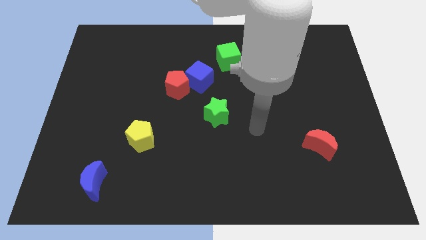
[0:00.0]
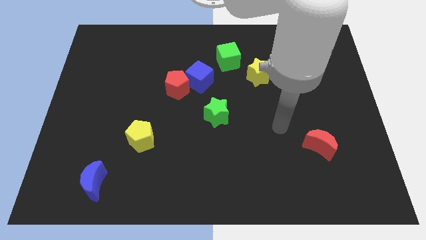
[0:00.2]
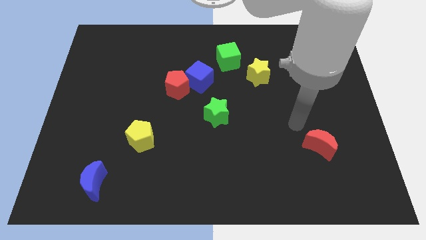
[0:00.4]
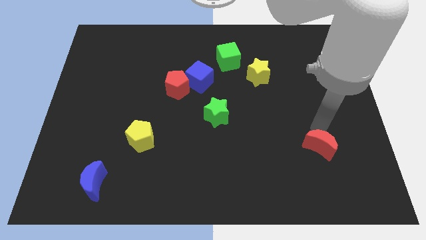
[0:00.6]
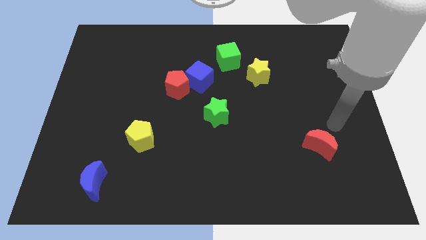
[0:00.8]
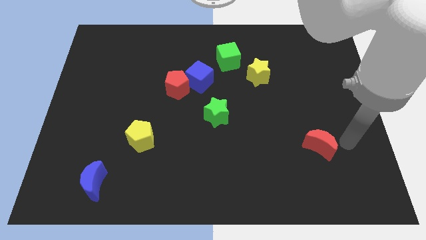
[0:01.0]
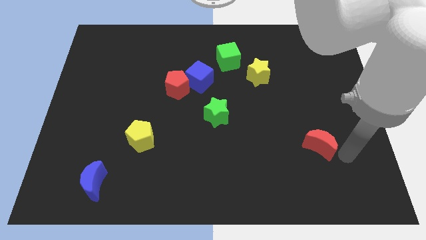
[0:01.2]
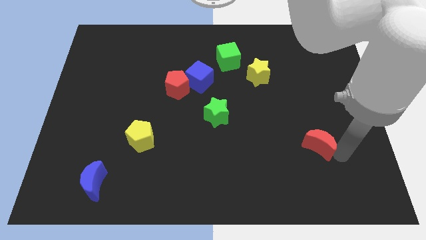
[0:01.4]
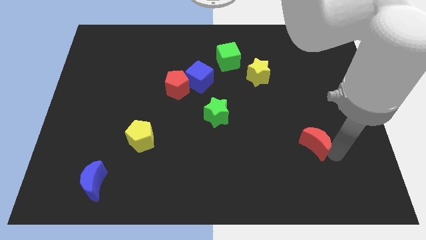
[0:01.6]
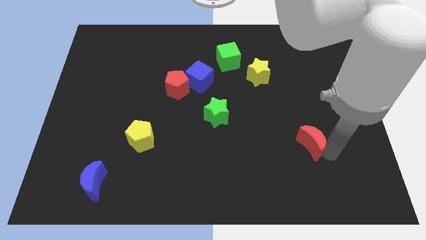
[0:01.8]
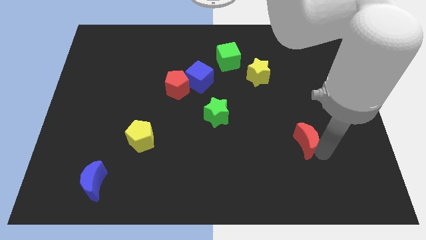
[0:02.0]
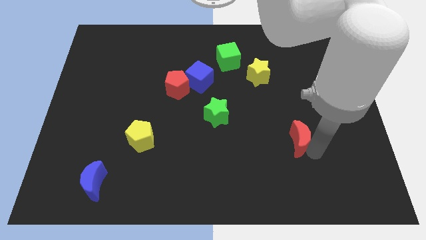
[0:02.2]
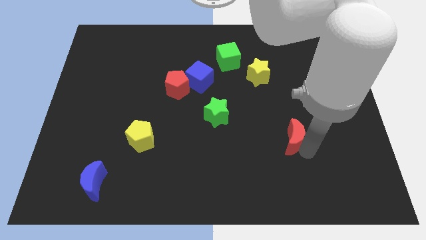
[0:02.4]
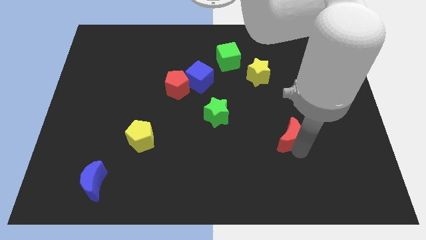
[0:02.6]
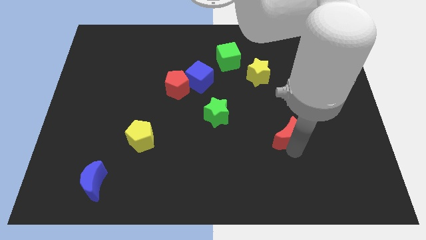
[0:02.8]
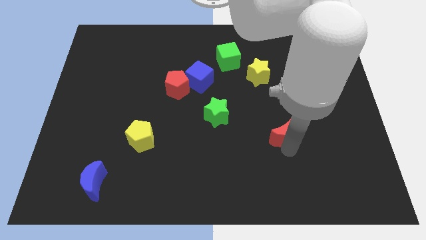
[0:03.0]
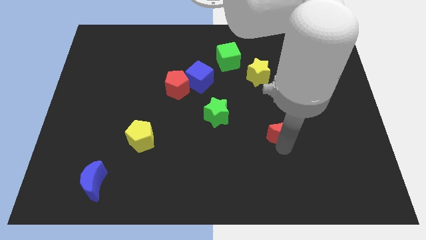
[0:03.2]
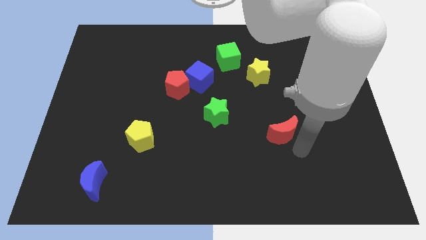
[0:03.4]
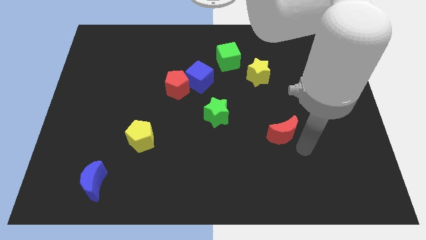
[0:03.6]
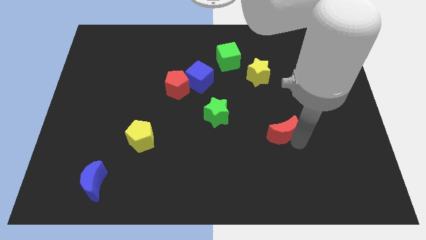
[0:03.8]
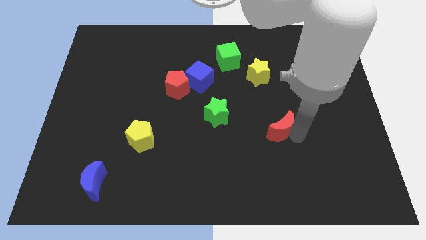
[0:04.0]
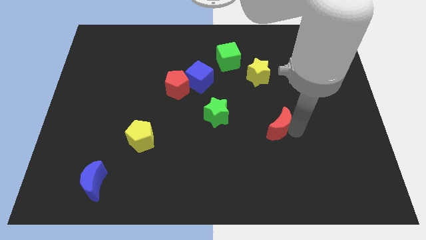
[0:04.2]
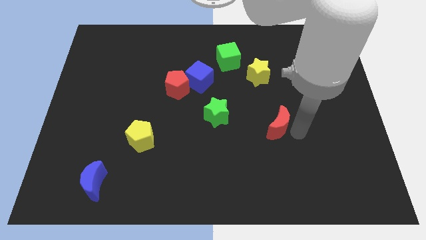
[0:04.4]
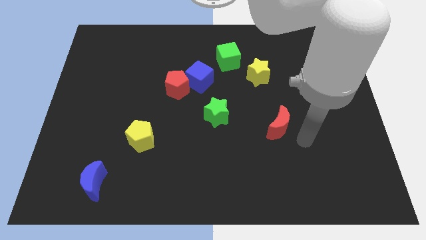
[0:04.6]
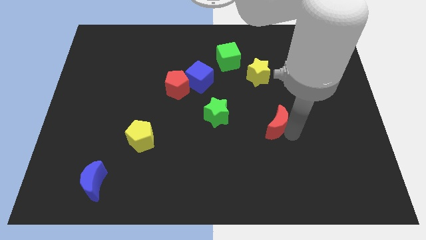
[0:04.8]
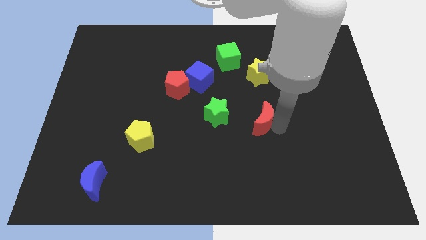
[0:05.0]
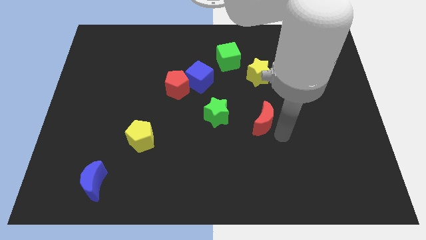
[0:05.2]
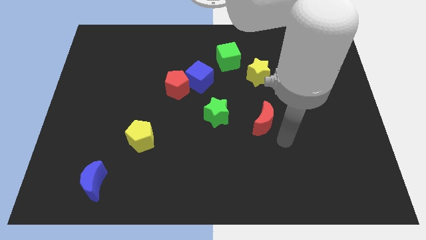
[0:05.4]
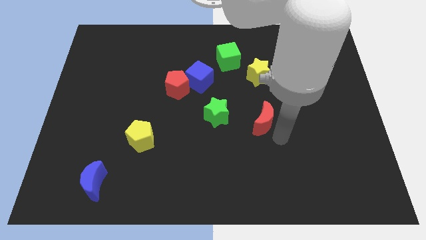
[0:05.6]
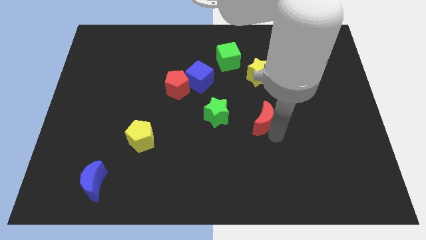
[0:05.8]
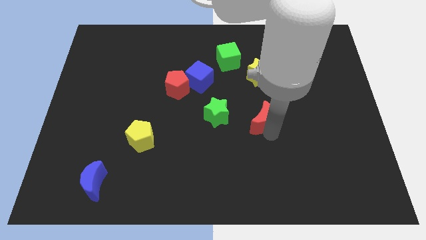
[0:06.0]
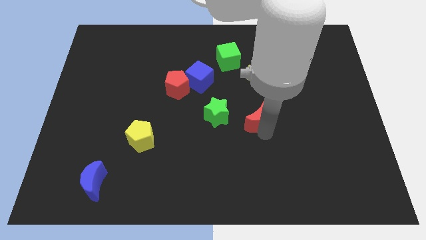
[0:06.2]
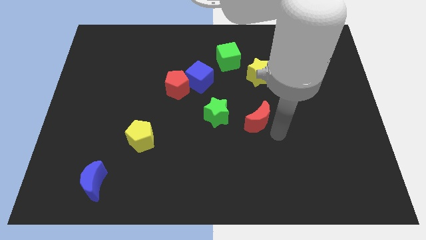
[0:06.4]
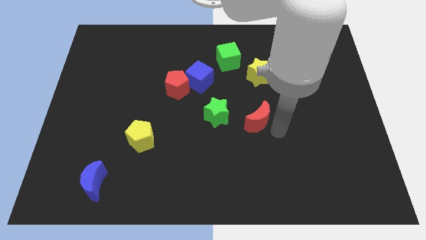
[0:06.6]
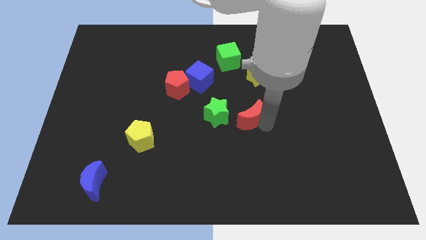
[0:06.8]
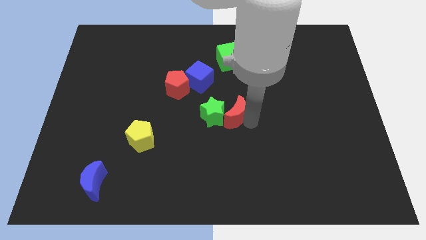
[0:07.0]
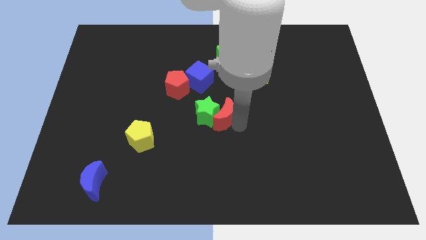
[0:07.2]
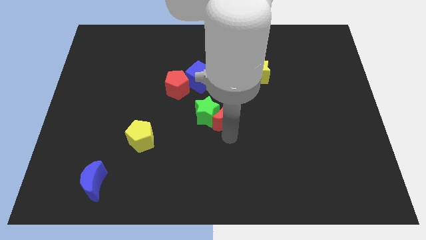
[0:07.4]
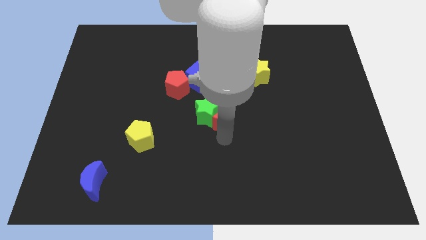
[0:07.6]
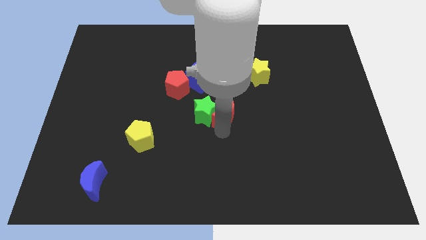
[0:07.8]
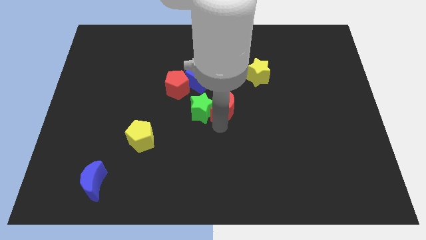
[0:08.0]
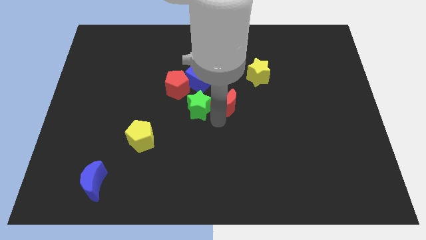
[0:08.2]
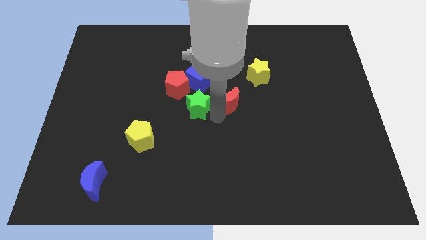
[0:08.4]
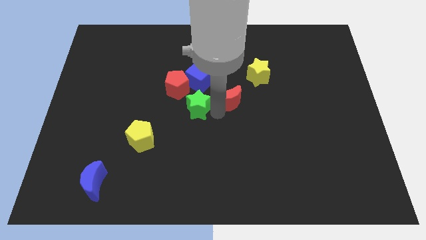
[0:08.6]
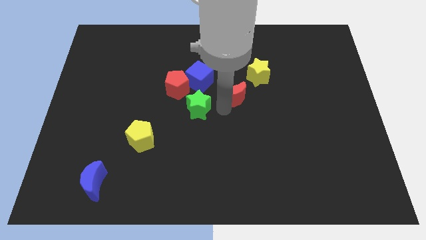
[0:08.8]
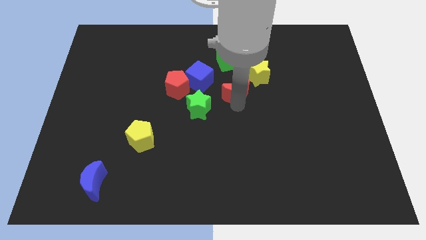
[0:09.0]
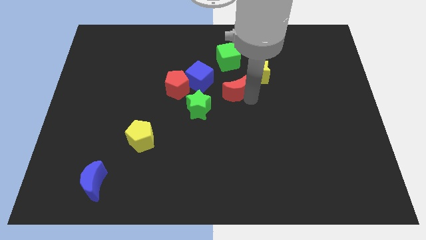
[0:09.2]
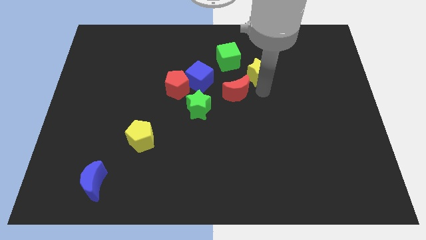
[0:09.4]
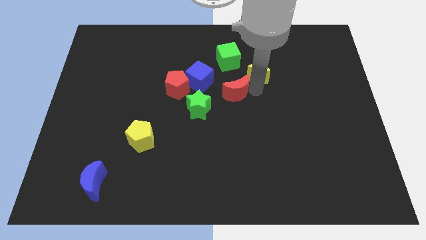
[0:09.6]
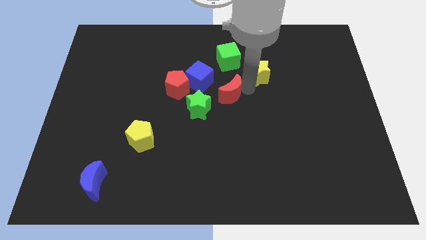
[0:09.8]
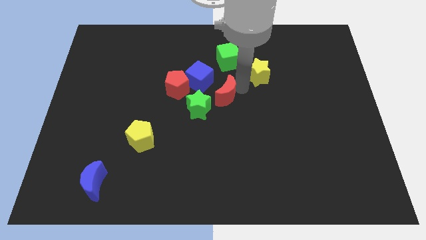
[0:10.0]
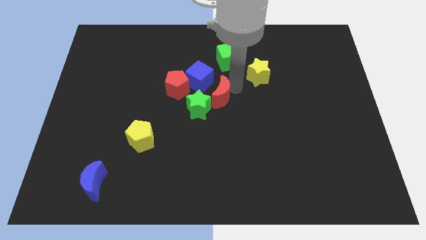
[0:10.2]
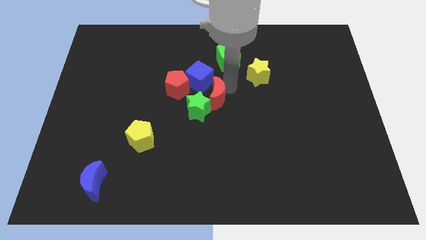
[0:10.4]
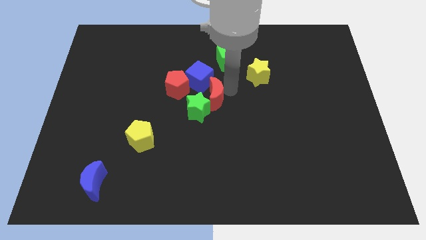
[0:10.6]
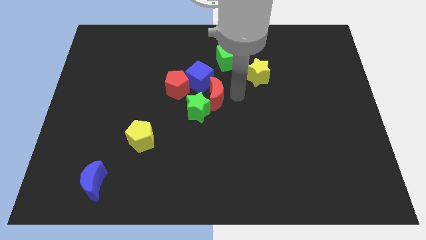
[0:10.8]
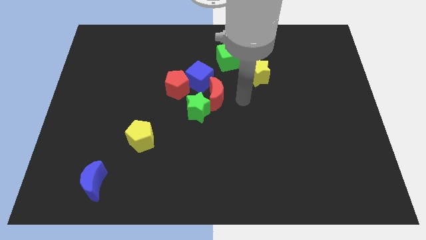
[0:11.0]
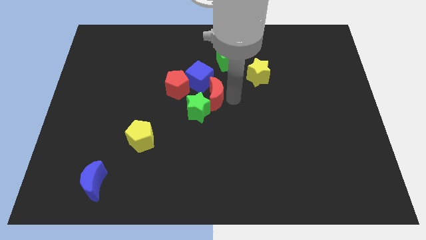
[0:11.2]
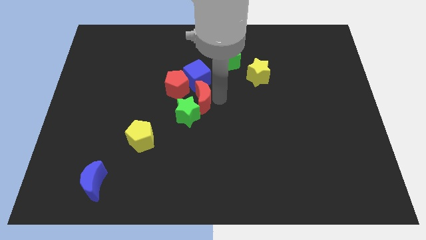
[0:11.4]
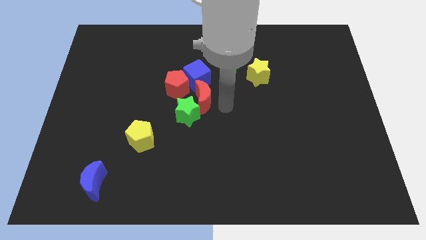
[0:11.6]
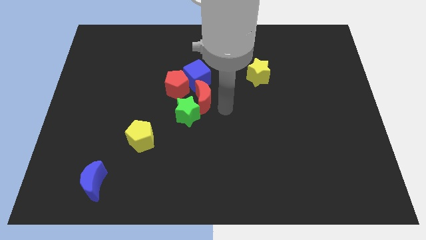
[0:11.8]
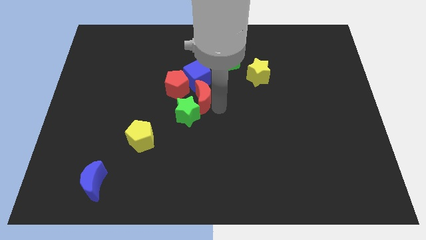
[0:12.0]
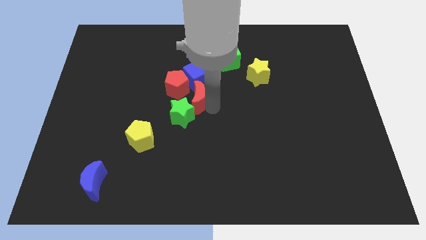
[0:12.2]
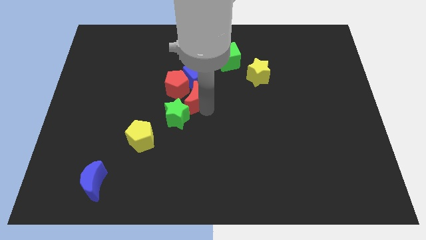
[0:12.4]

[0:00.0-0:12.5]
push the red moon close to the red pentagon

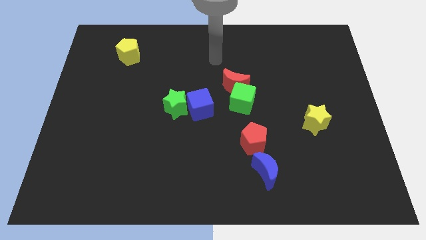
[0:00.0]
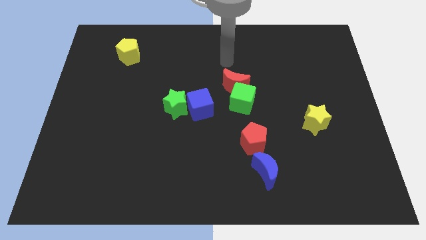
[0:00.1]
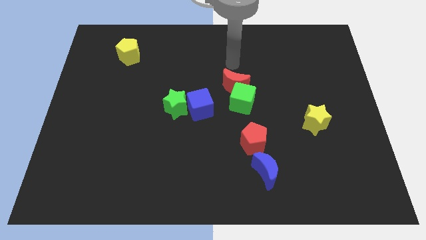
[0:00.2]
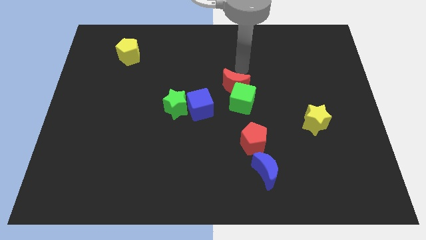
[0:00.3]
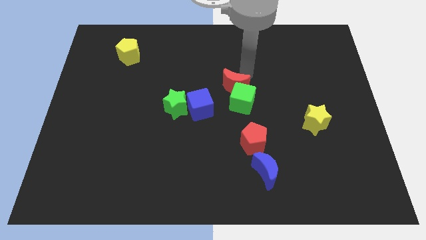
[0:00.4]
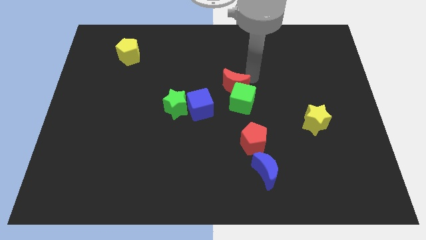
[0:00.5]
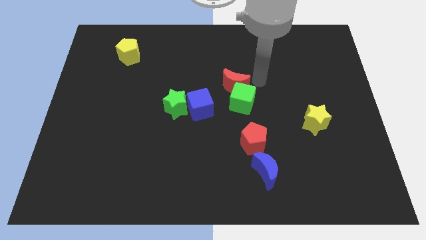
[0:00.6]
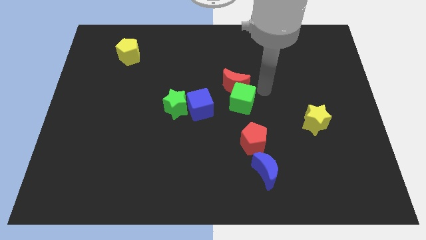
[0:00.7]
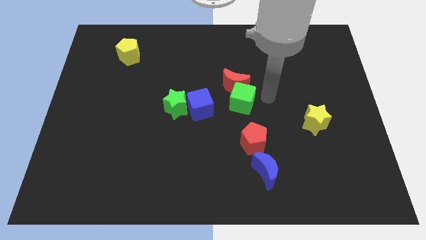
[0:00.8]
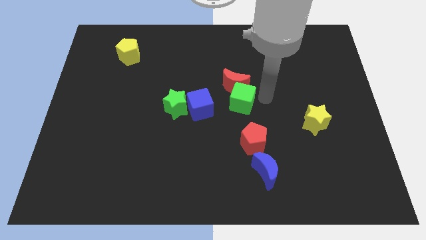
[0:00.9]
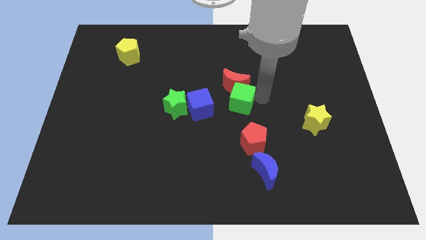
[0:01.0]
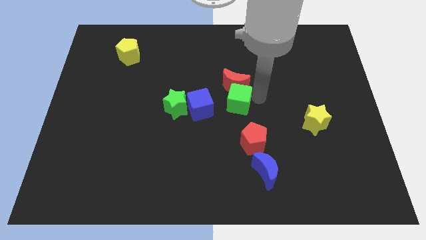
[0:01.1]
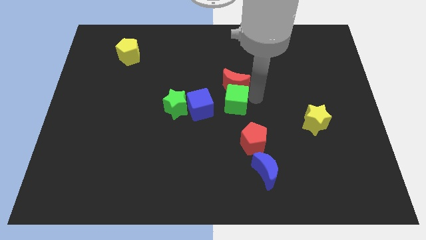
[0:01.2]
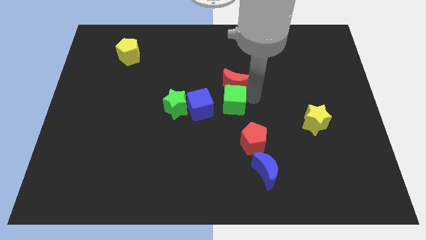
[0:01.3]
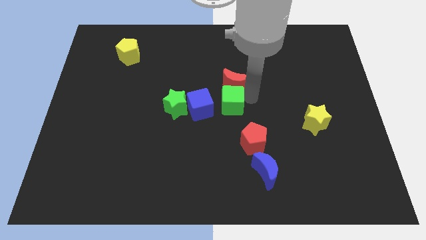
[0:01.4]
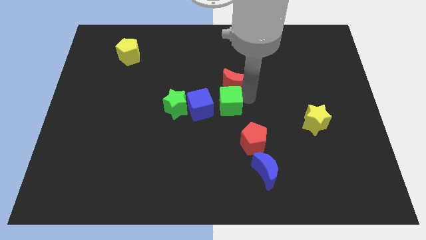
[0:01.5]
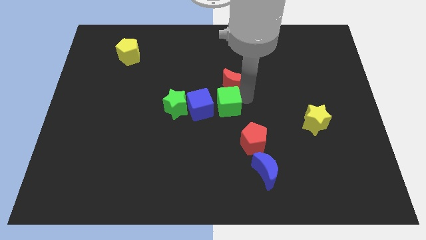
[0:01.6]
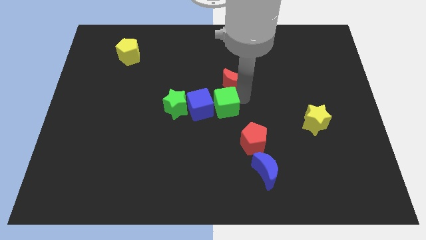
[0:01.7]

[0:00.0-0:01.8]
put the green cube towards the blue cube

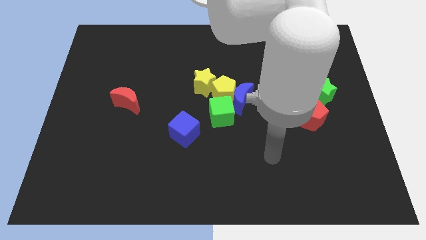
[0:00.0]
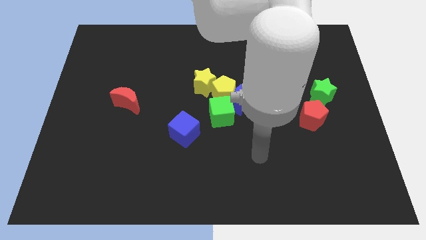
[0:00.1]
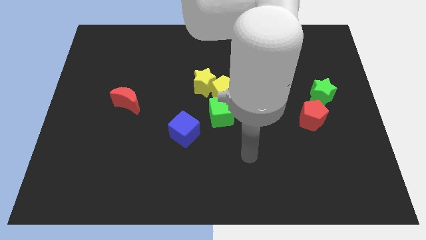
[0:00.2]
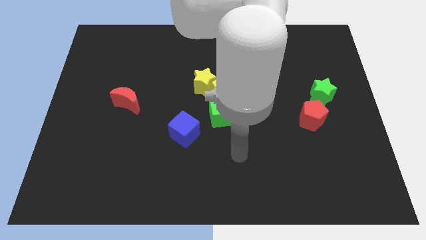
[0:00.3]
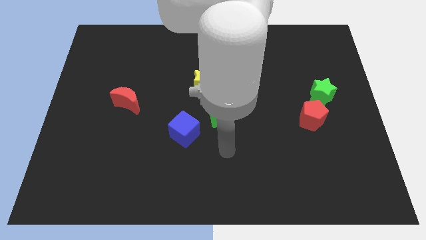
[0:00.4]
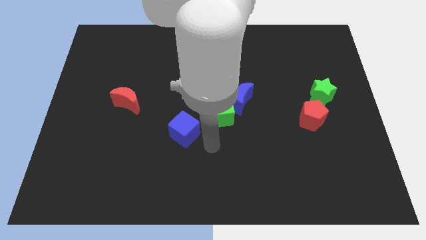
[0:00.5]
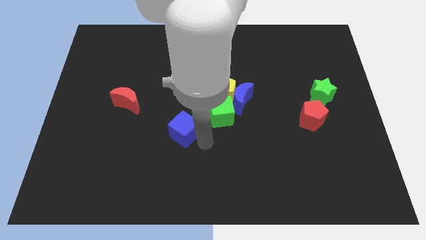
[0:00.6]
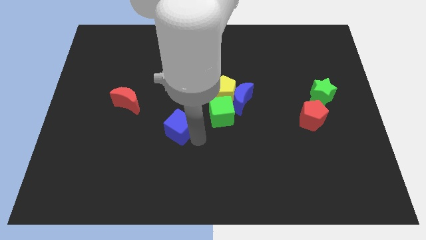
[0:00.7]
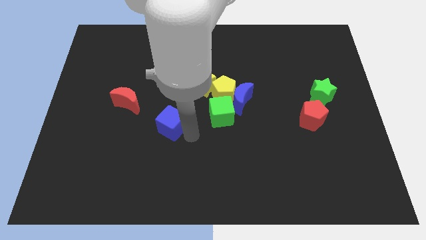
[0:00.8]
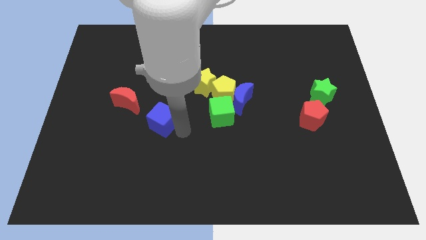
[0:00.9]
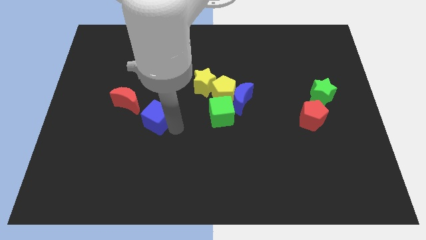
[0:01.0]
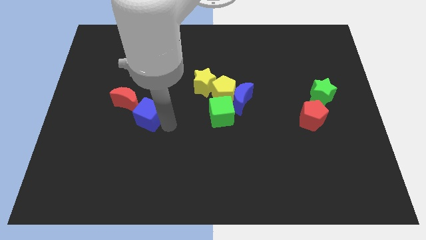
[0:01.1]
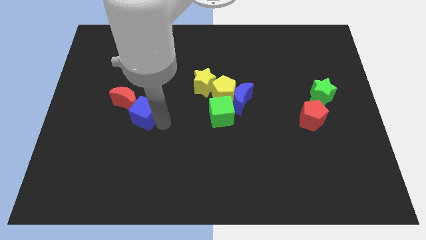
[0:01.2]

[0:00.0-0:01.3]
slide the blue cube next to the red moon
